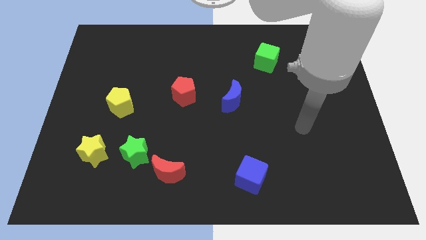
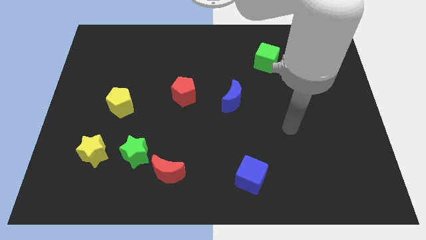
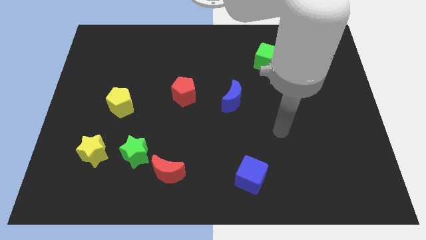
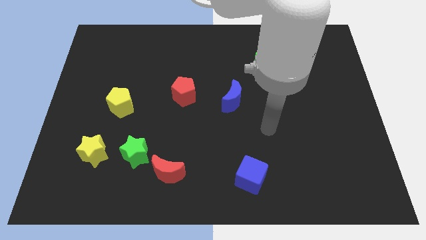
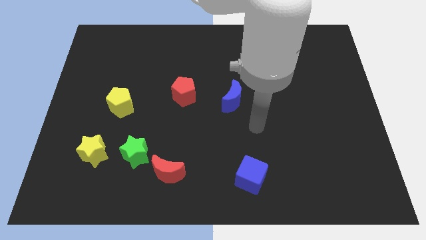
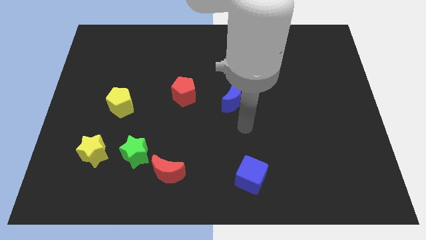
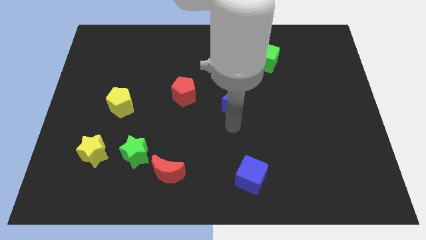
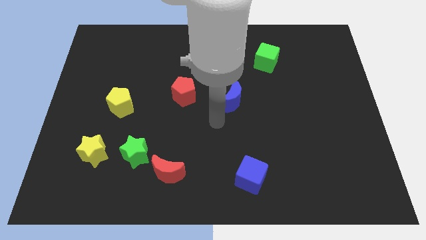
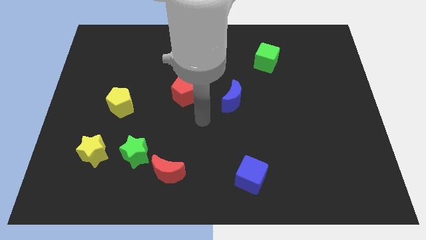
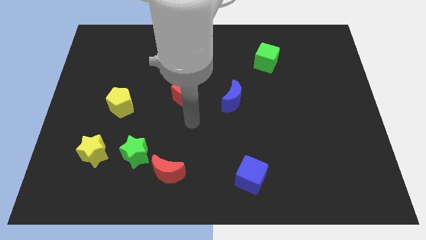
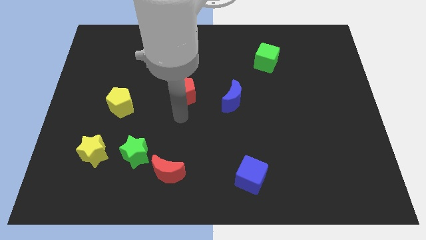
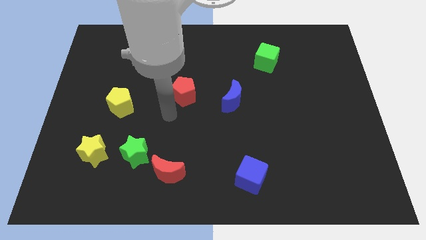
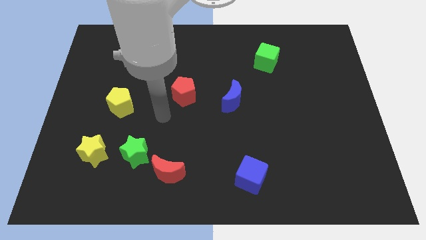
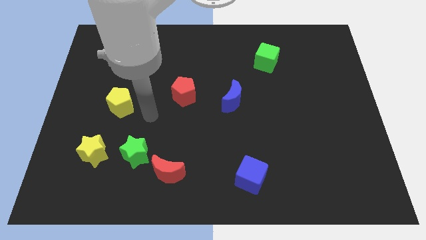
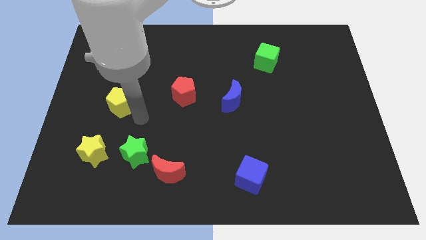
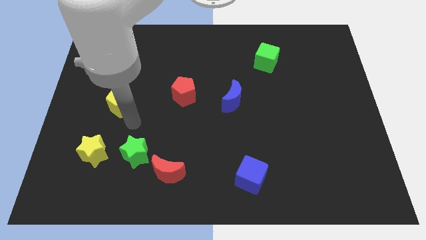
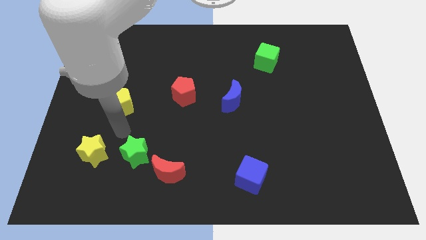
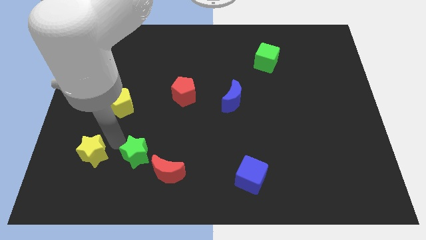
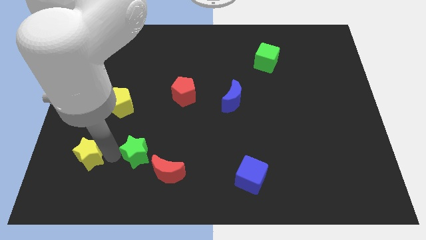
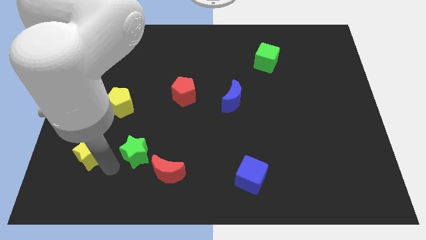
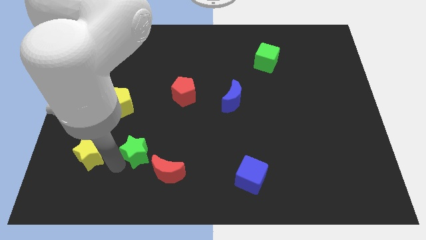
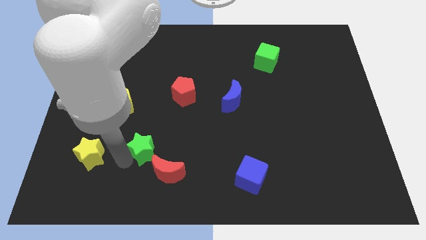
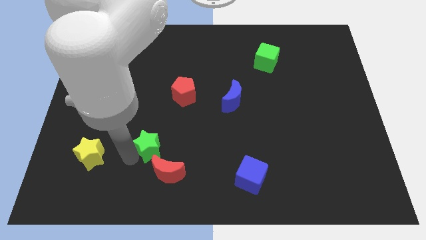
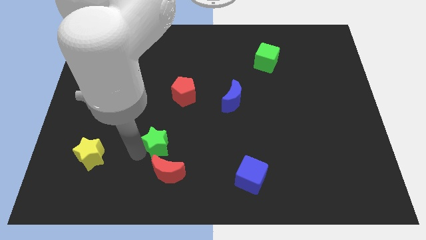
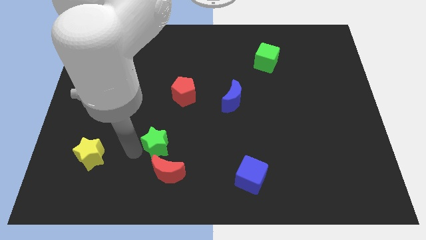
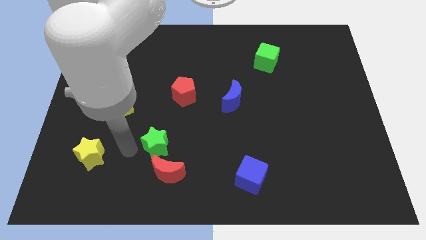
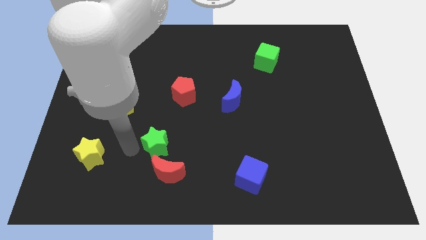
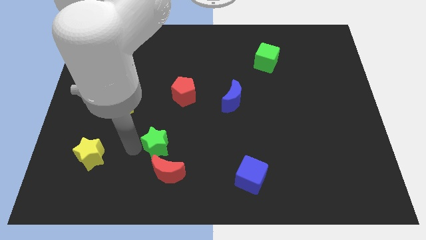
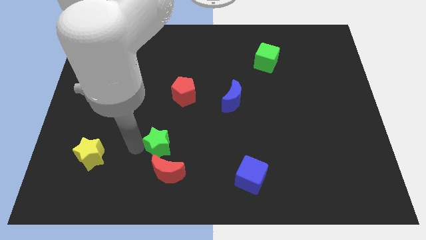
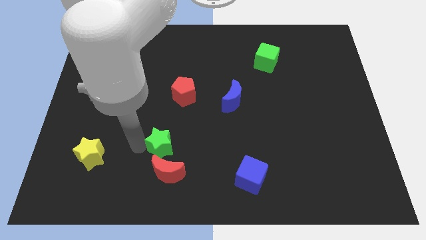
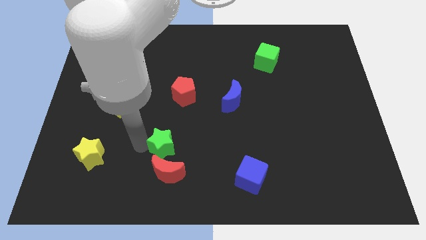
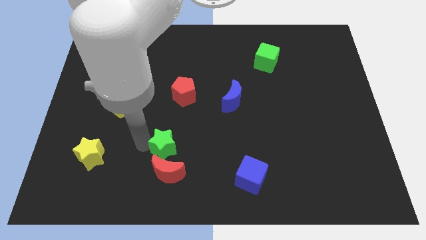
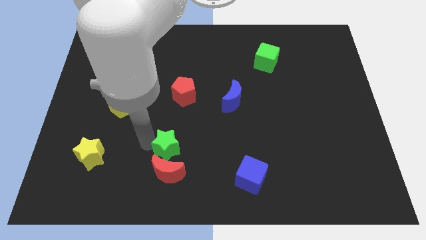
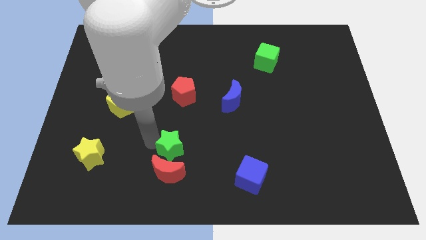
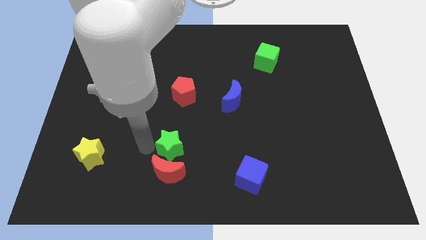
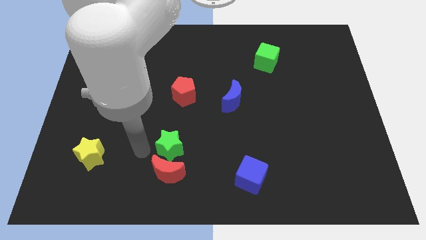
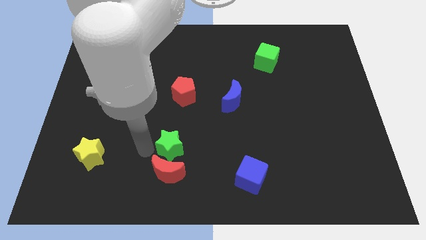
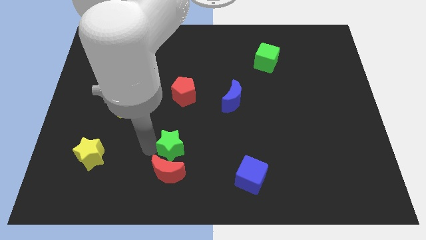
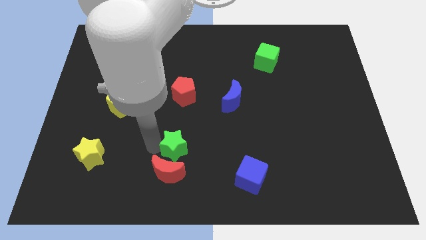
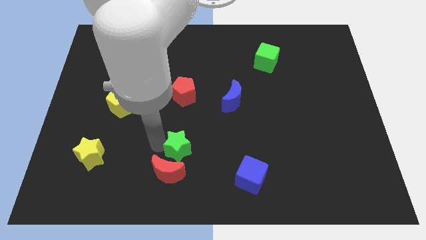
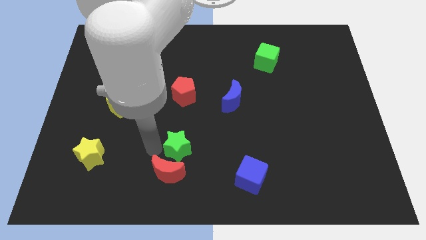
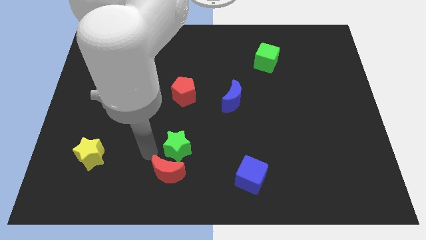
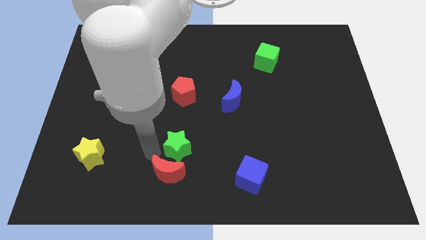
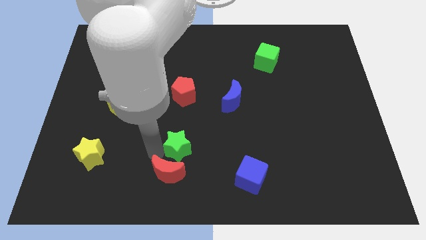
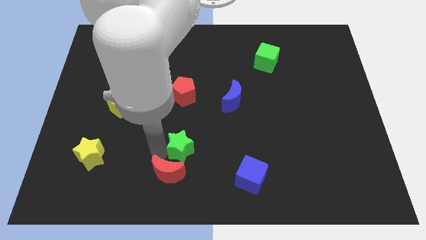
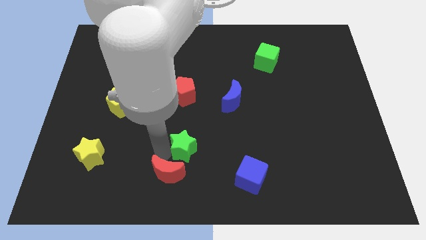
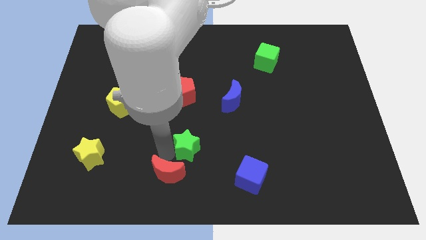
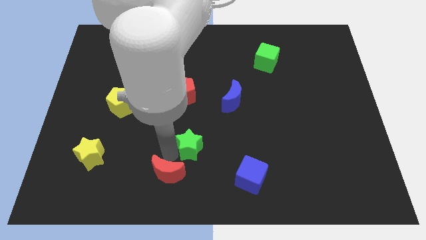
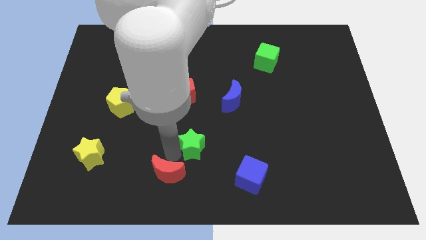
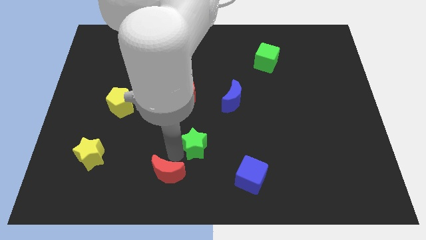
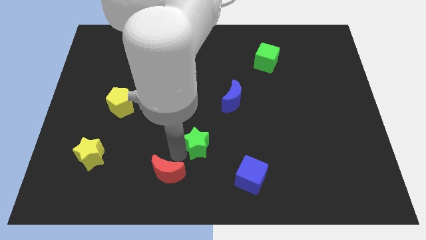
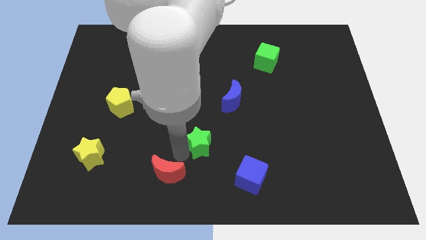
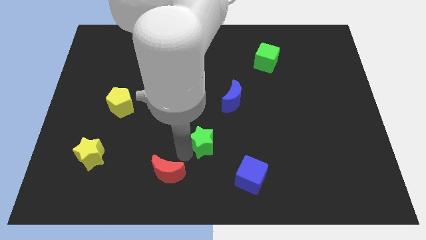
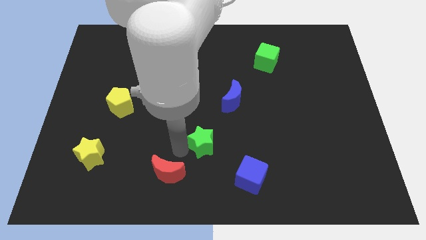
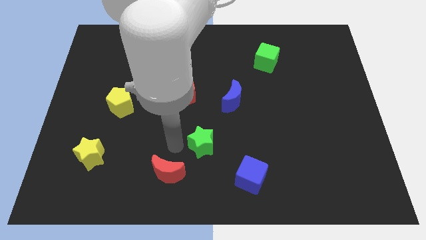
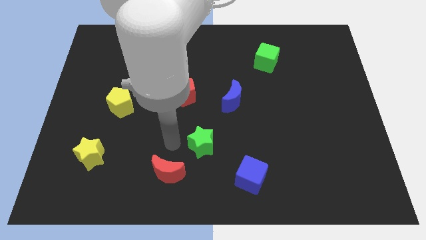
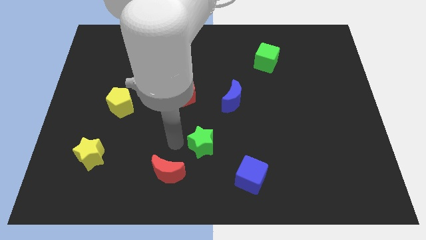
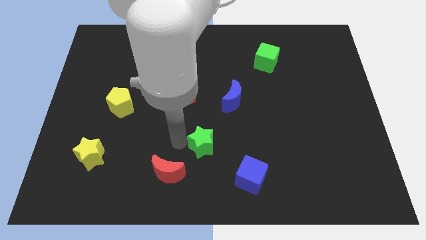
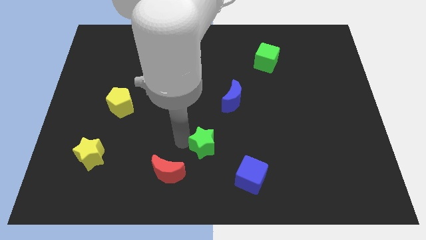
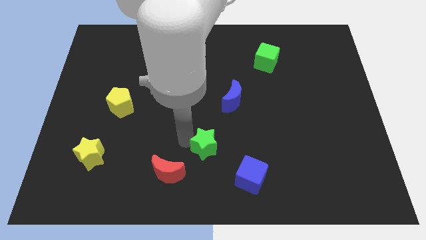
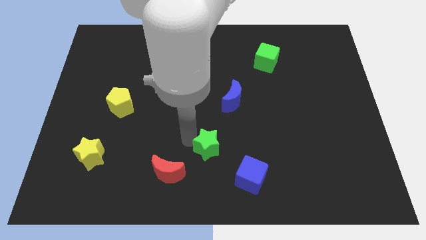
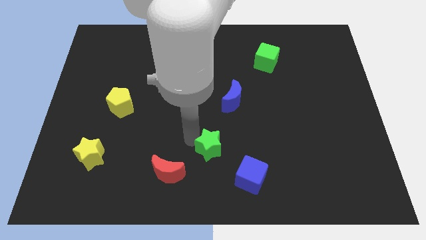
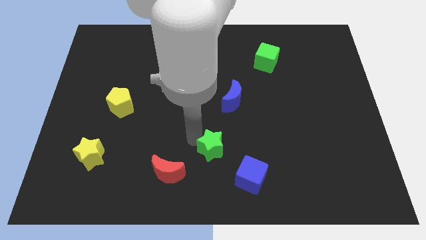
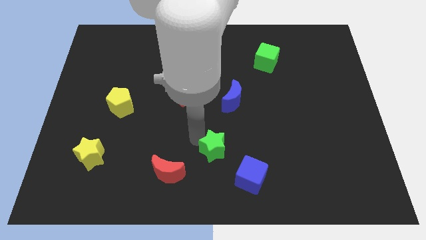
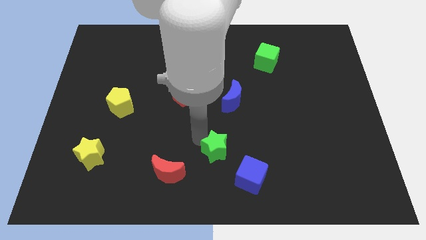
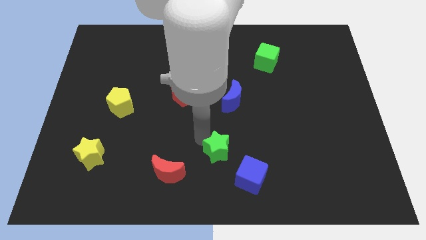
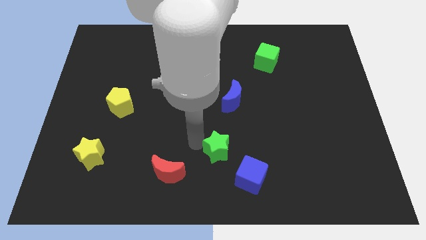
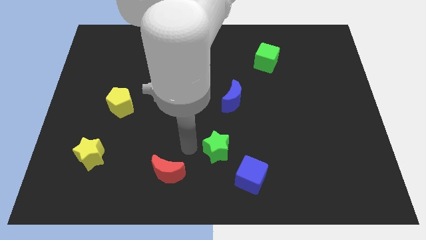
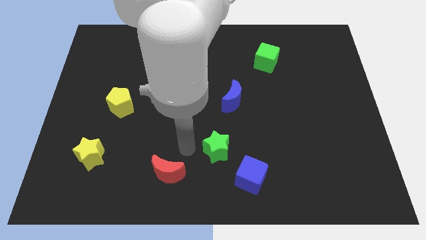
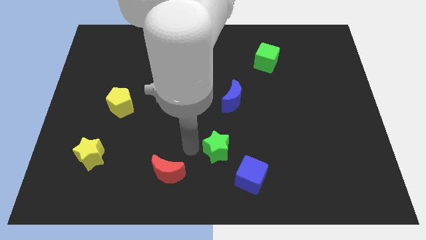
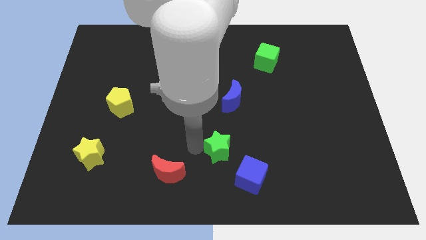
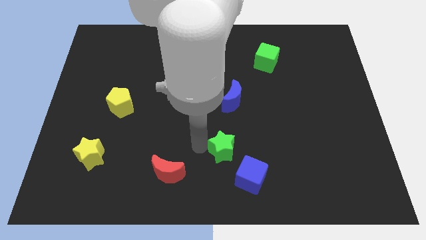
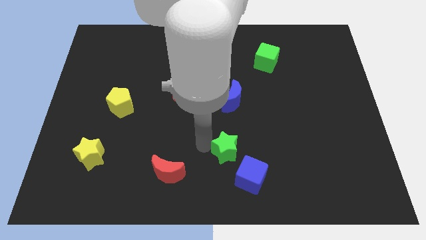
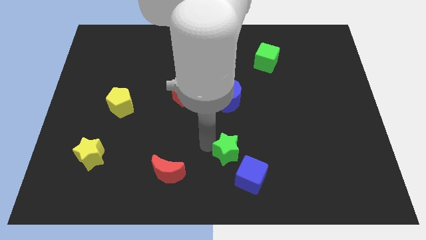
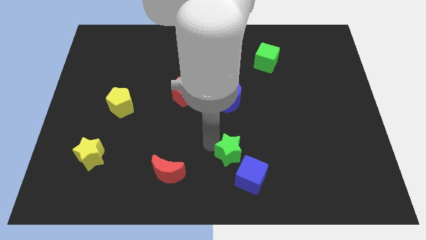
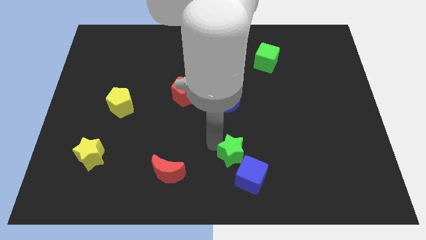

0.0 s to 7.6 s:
push the green star to the right
